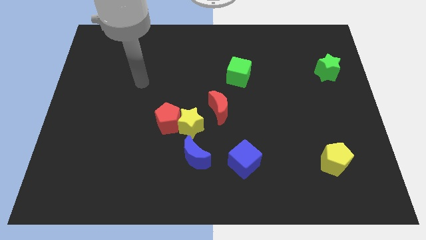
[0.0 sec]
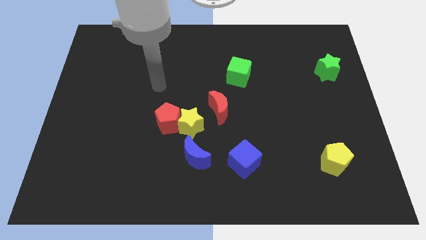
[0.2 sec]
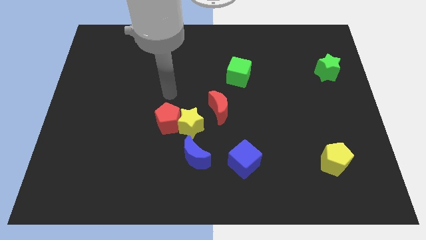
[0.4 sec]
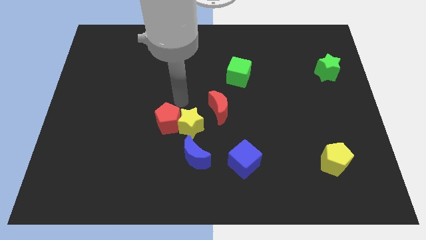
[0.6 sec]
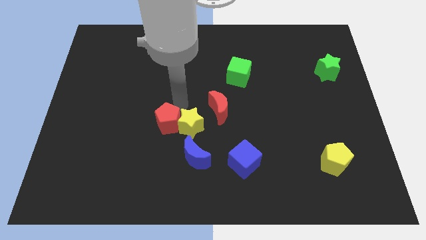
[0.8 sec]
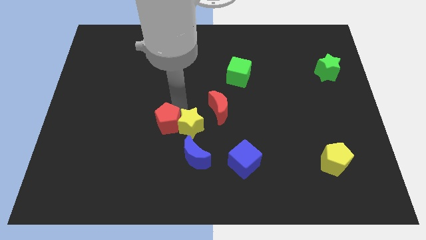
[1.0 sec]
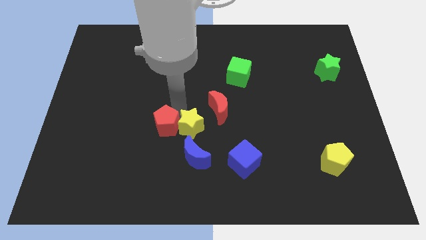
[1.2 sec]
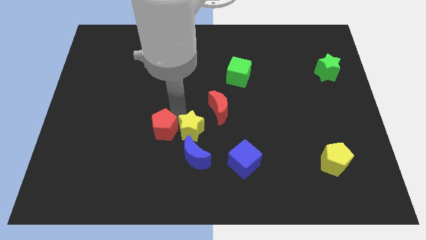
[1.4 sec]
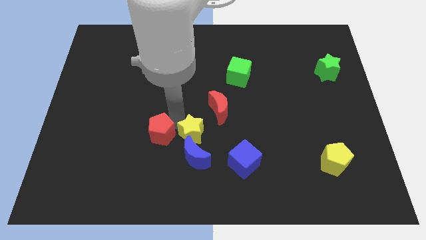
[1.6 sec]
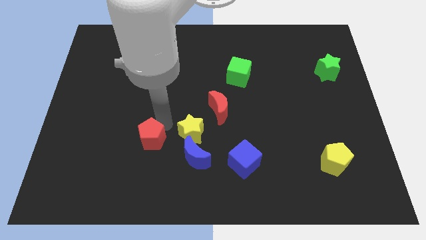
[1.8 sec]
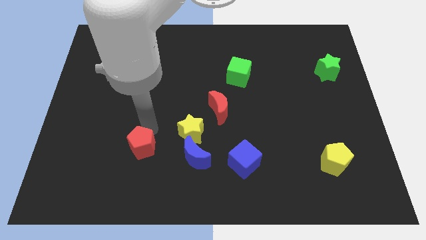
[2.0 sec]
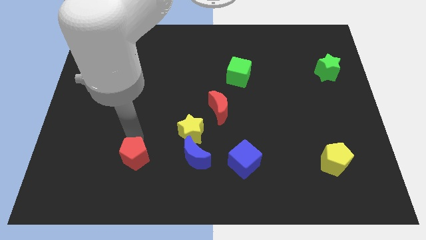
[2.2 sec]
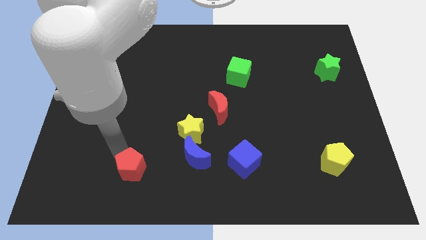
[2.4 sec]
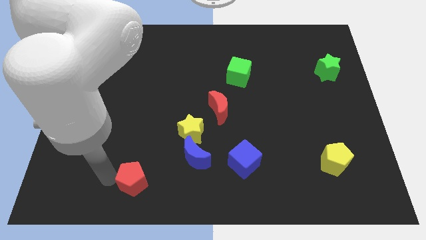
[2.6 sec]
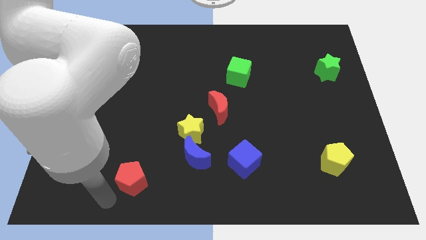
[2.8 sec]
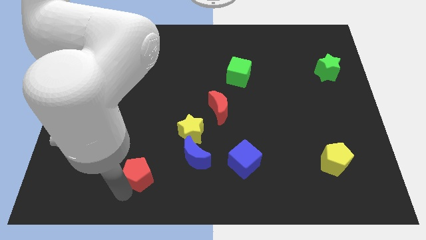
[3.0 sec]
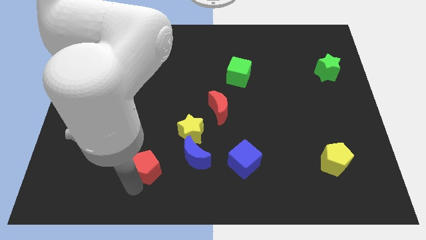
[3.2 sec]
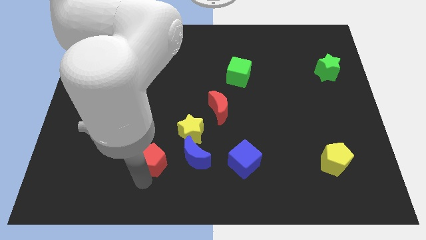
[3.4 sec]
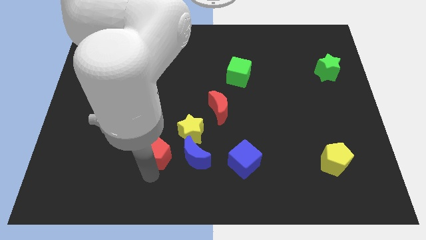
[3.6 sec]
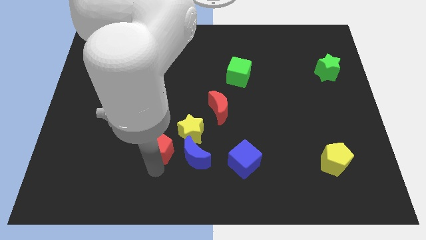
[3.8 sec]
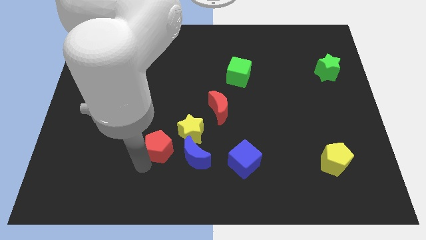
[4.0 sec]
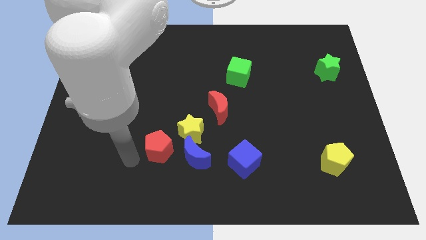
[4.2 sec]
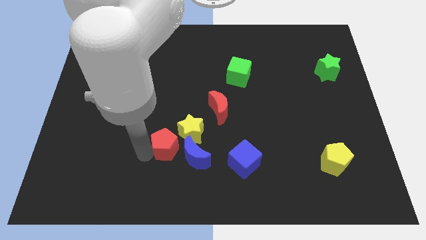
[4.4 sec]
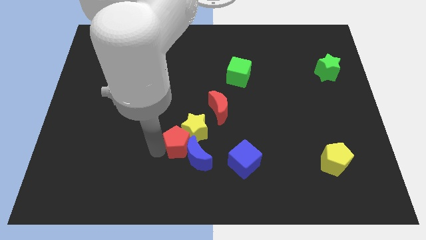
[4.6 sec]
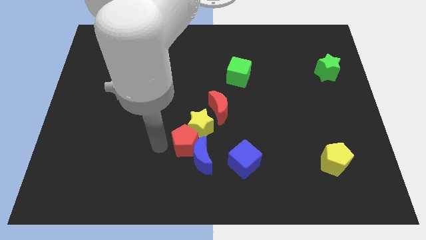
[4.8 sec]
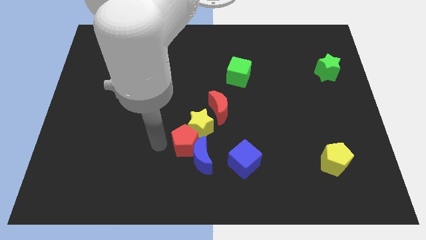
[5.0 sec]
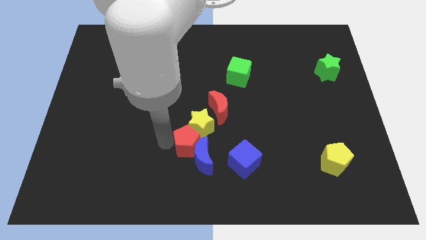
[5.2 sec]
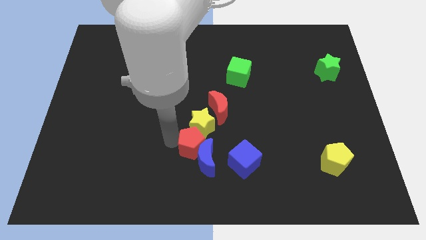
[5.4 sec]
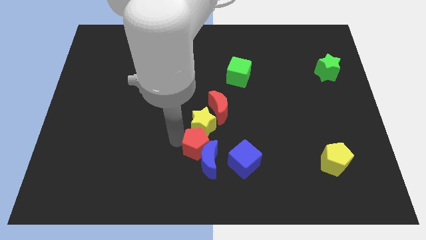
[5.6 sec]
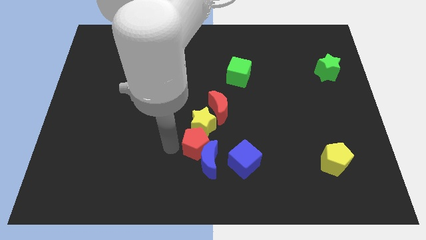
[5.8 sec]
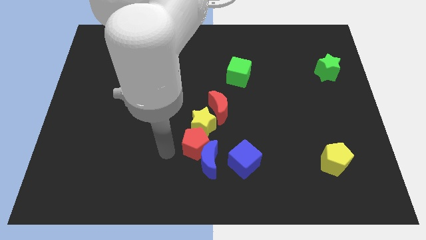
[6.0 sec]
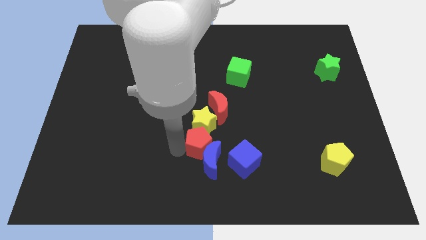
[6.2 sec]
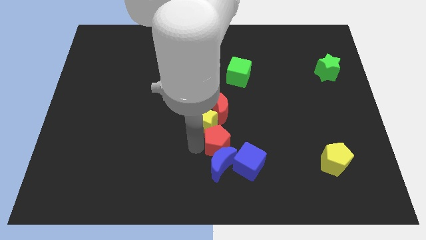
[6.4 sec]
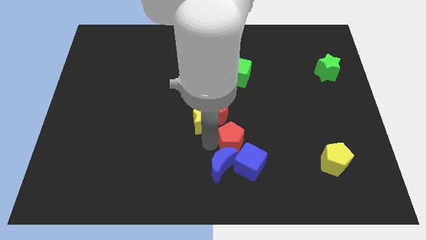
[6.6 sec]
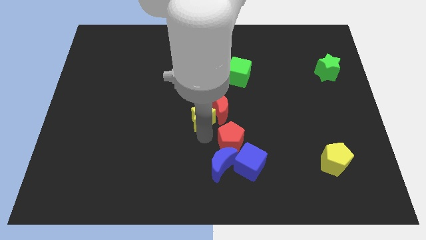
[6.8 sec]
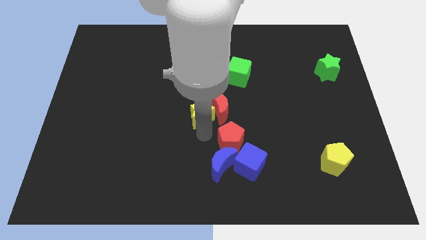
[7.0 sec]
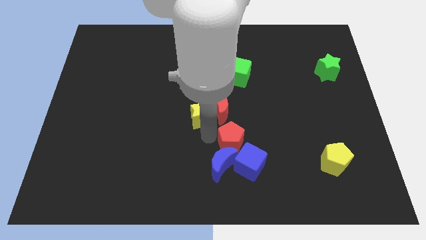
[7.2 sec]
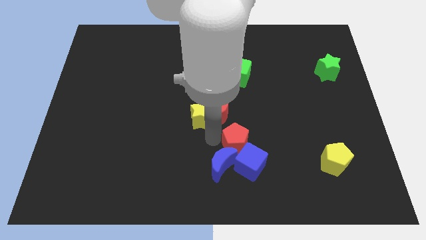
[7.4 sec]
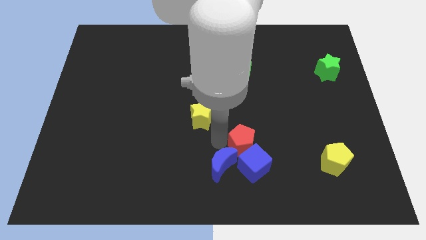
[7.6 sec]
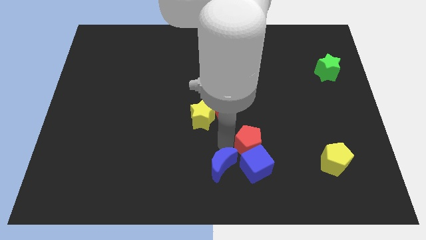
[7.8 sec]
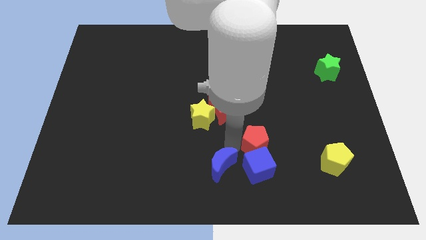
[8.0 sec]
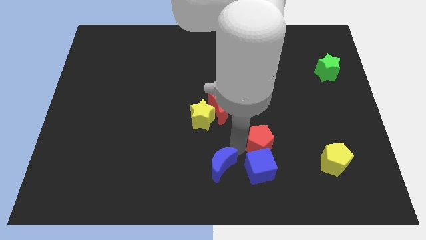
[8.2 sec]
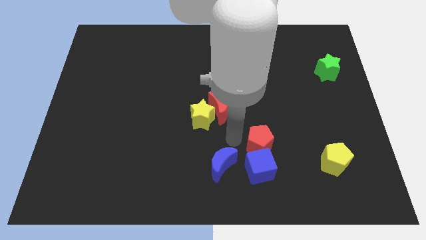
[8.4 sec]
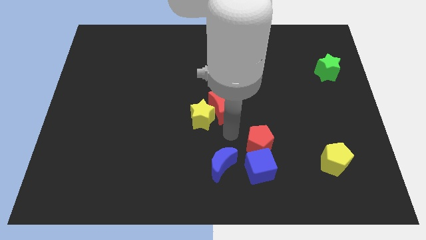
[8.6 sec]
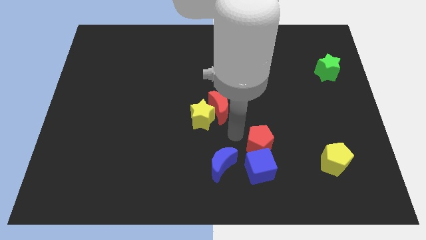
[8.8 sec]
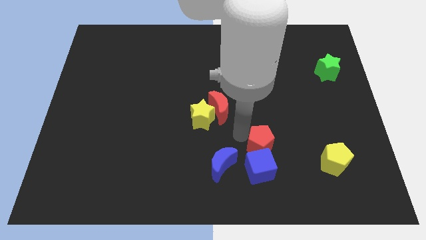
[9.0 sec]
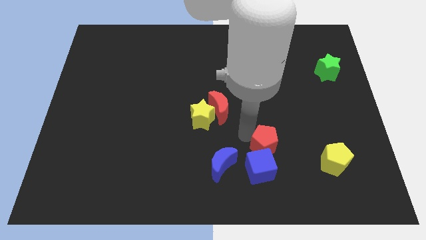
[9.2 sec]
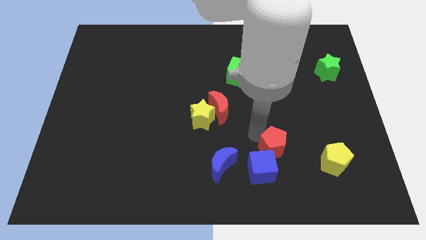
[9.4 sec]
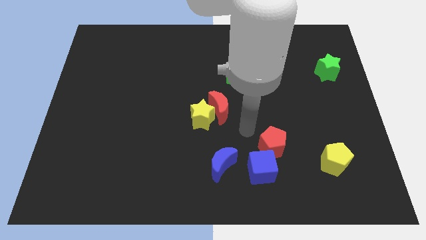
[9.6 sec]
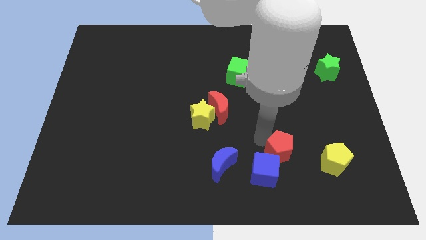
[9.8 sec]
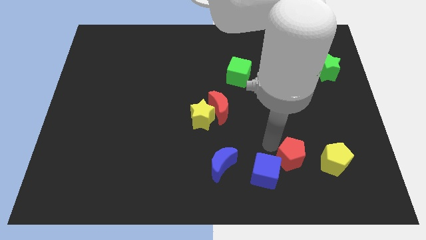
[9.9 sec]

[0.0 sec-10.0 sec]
push the red pentagon to the right side of the blue cube

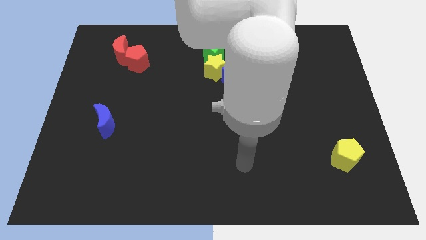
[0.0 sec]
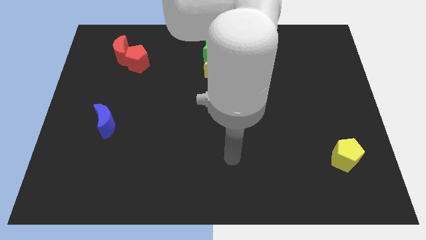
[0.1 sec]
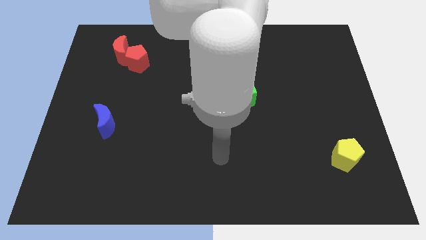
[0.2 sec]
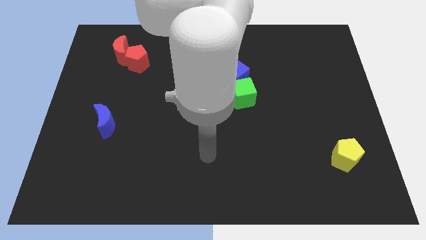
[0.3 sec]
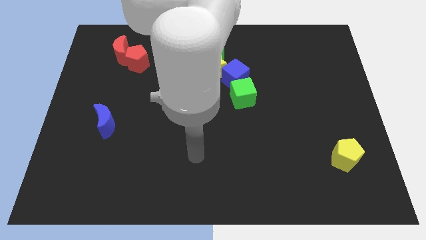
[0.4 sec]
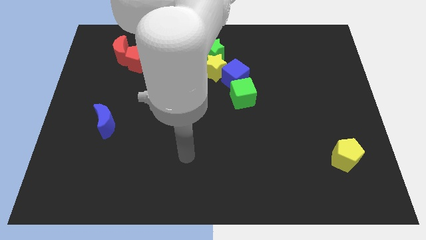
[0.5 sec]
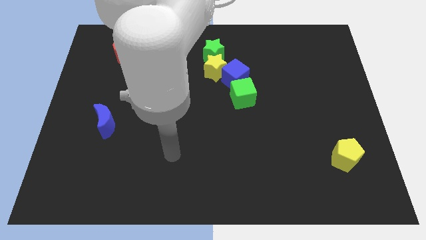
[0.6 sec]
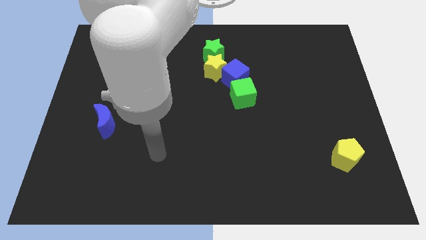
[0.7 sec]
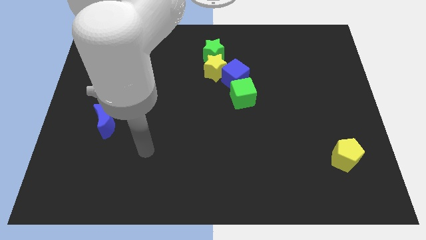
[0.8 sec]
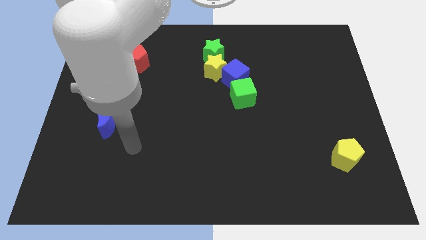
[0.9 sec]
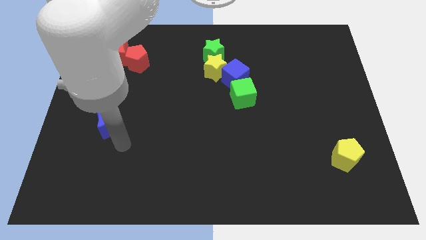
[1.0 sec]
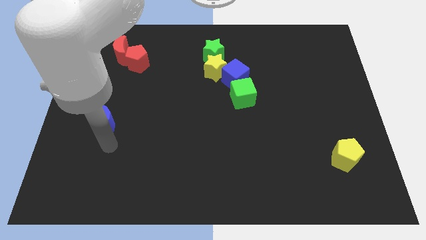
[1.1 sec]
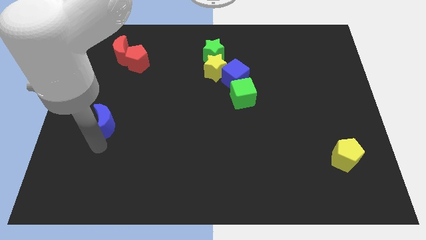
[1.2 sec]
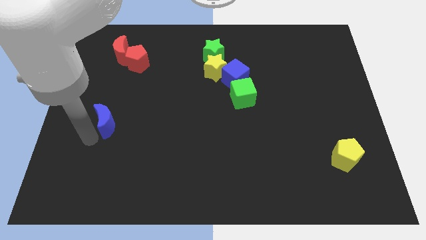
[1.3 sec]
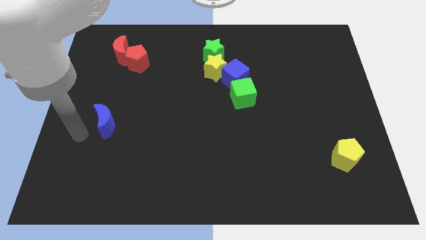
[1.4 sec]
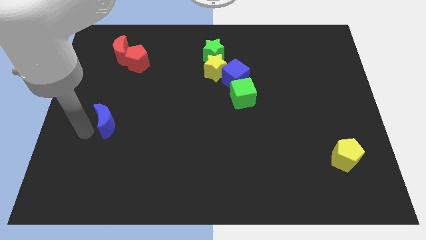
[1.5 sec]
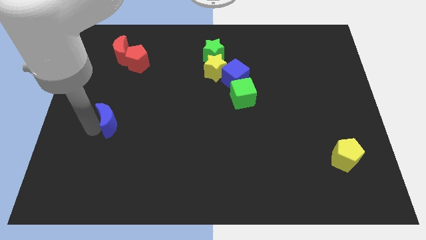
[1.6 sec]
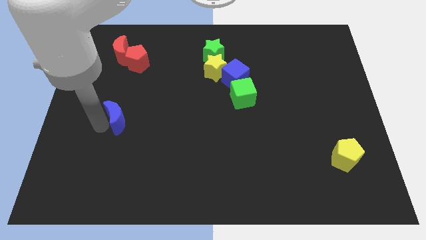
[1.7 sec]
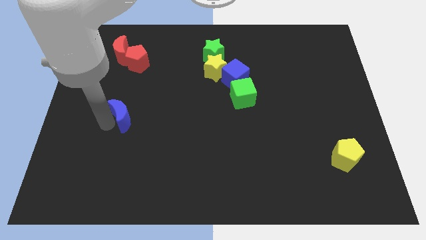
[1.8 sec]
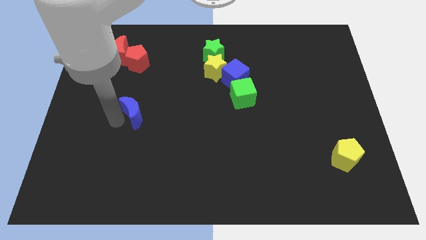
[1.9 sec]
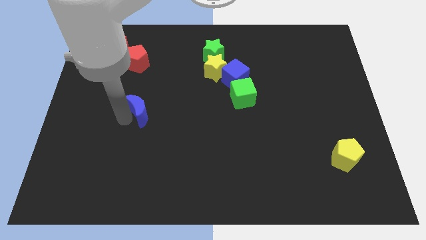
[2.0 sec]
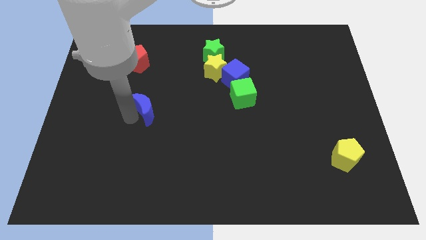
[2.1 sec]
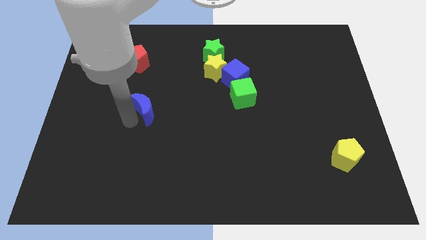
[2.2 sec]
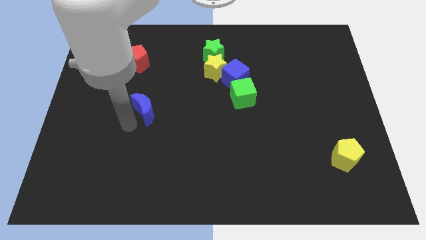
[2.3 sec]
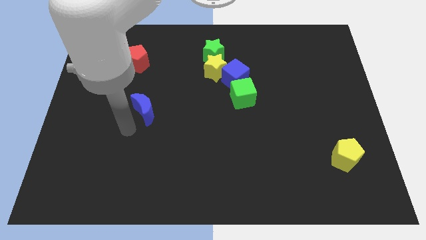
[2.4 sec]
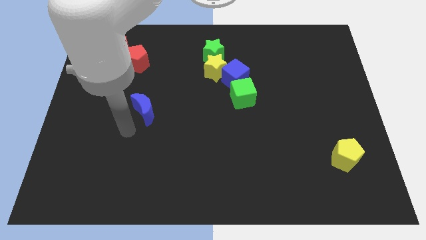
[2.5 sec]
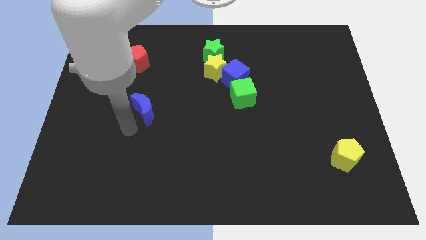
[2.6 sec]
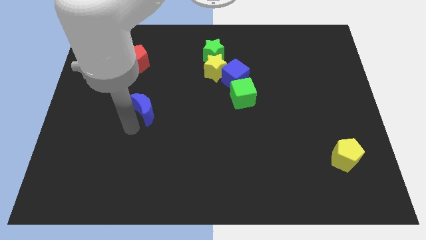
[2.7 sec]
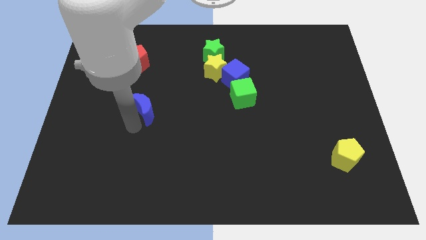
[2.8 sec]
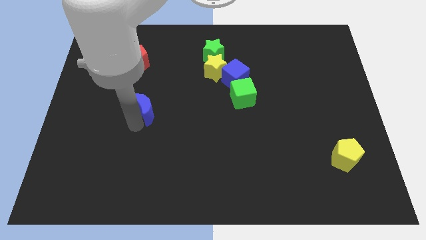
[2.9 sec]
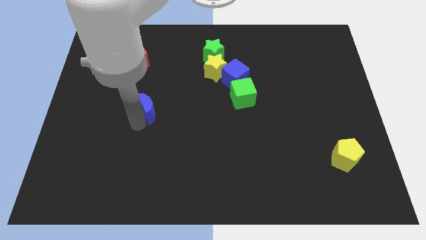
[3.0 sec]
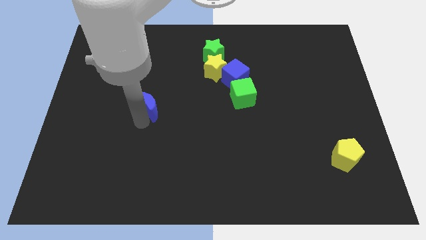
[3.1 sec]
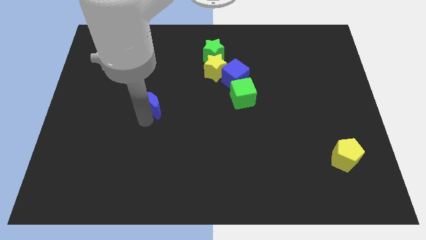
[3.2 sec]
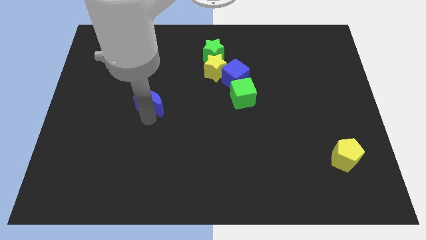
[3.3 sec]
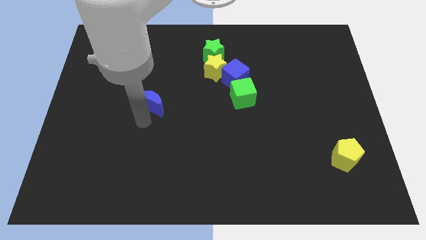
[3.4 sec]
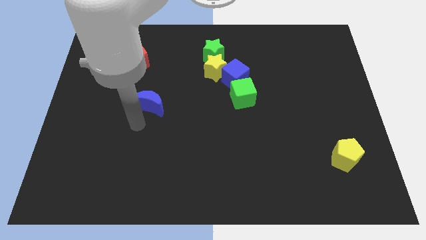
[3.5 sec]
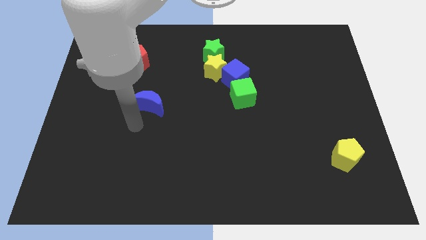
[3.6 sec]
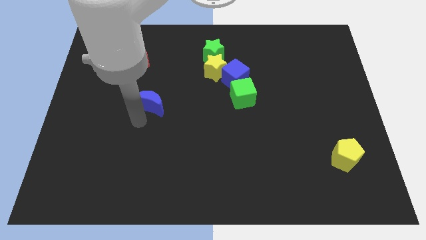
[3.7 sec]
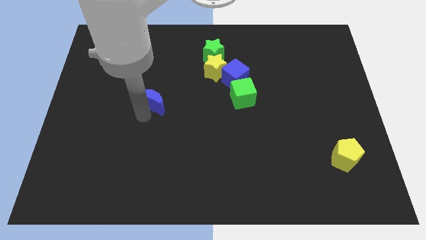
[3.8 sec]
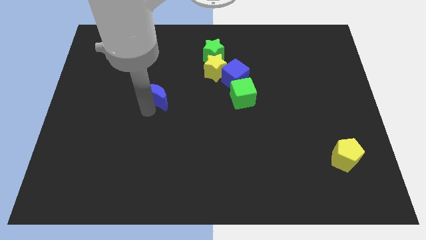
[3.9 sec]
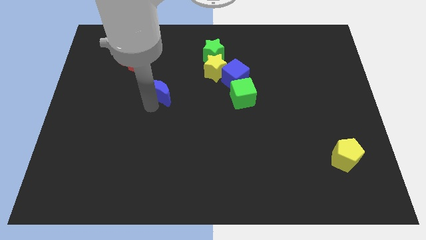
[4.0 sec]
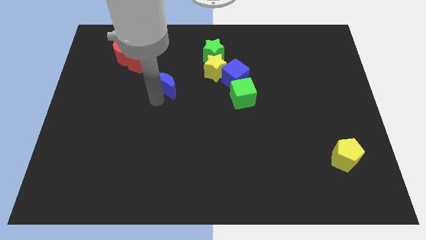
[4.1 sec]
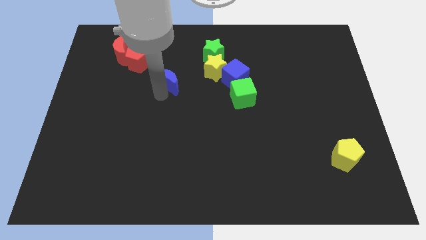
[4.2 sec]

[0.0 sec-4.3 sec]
put the blue moon left of the yellow star
